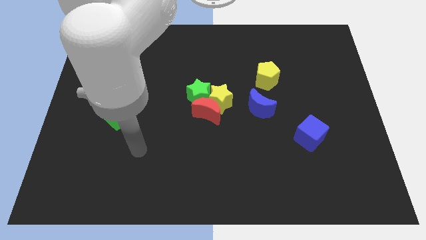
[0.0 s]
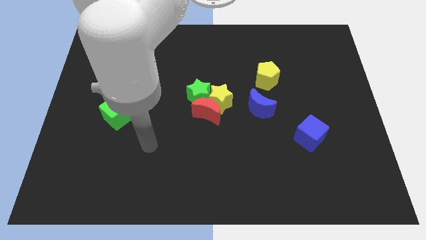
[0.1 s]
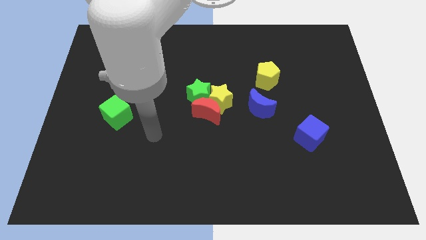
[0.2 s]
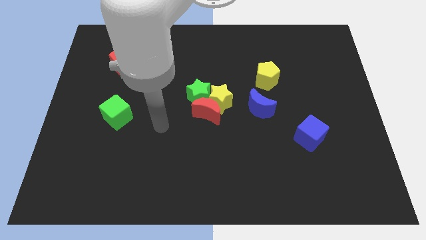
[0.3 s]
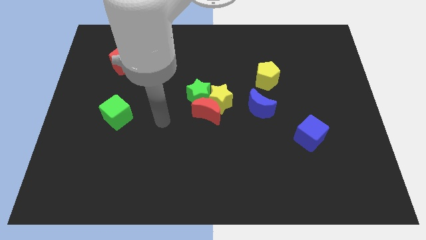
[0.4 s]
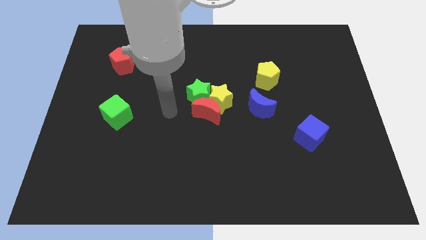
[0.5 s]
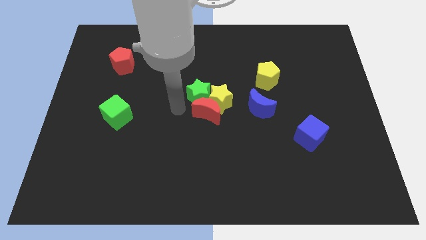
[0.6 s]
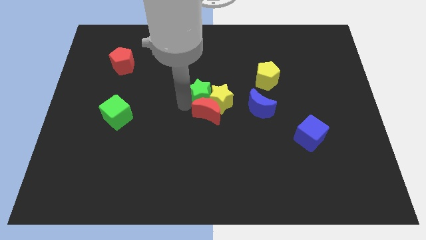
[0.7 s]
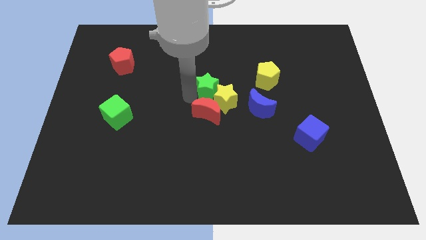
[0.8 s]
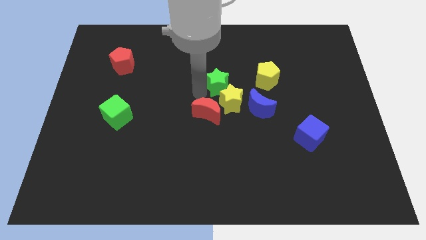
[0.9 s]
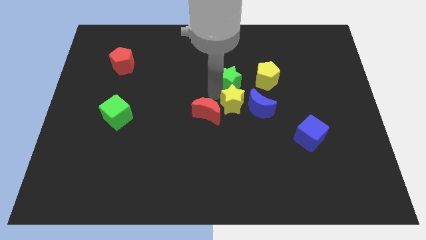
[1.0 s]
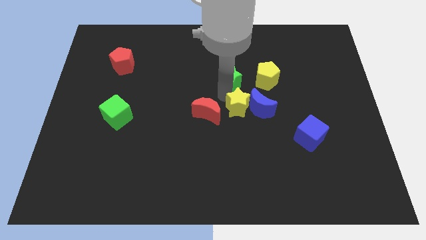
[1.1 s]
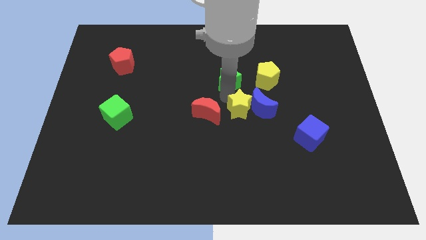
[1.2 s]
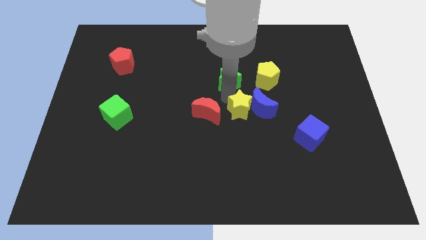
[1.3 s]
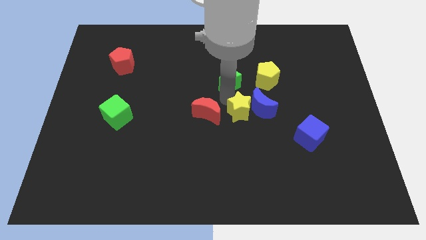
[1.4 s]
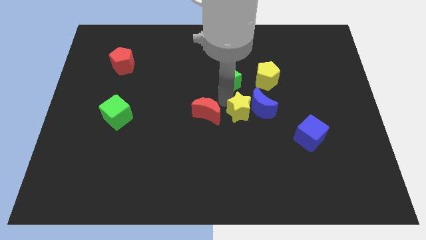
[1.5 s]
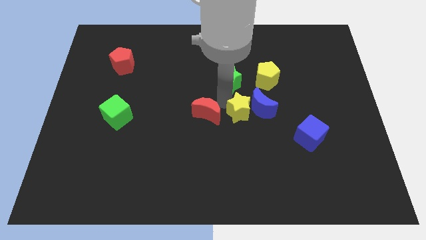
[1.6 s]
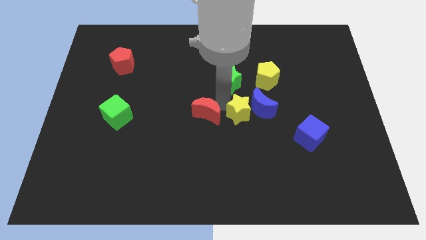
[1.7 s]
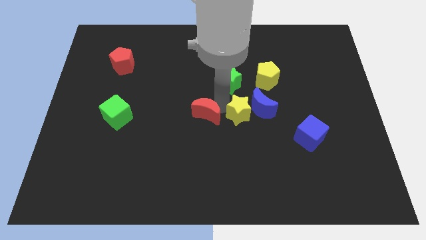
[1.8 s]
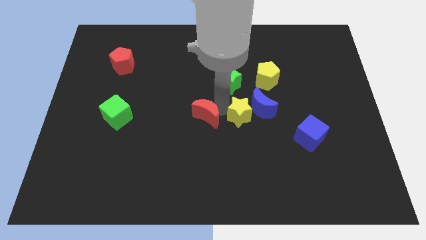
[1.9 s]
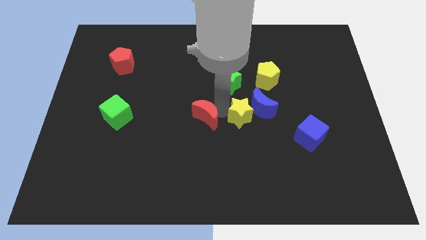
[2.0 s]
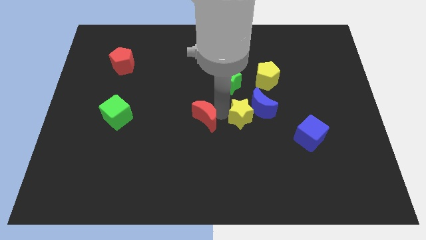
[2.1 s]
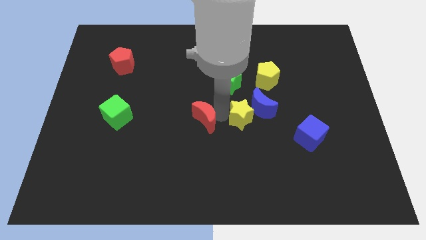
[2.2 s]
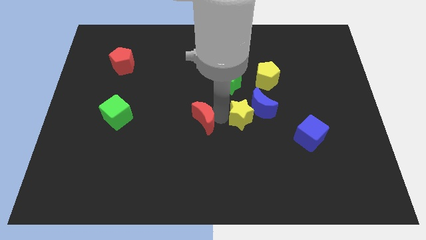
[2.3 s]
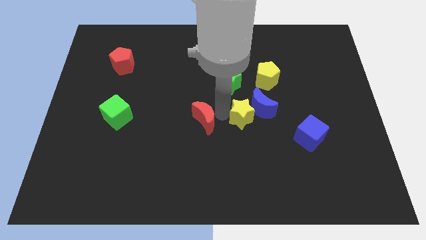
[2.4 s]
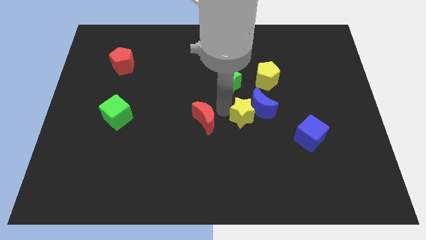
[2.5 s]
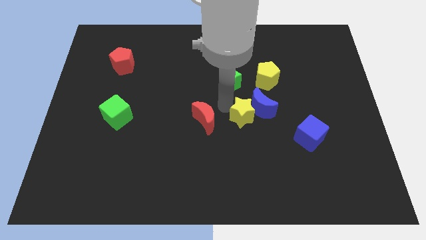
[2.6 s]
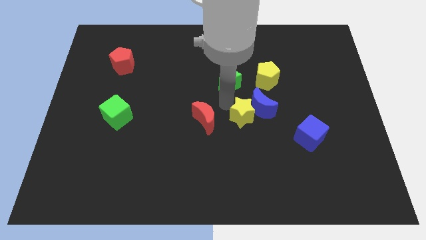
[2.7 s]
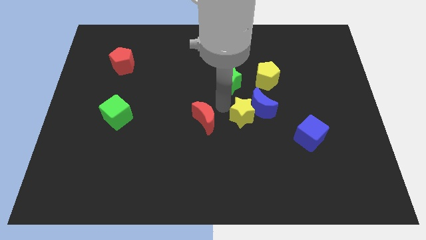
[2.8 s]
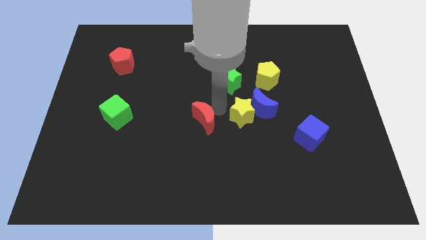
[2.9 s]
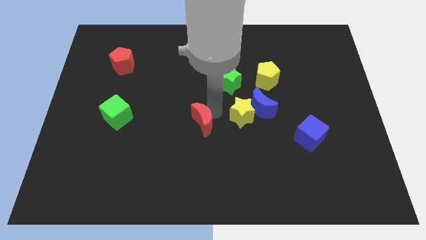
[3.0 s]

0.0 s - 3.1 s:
move the red moon away from the yellow star and green star

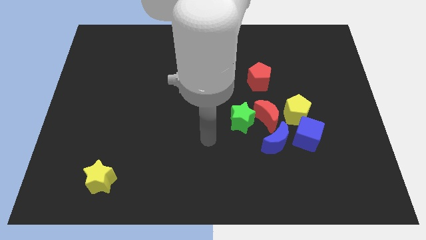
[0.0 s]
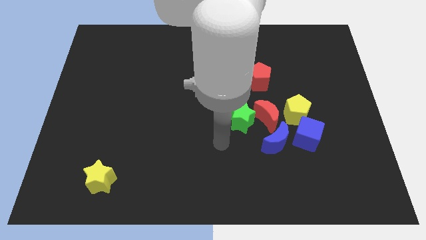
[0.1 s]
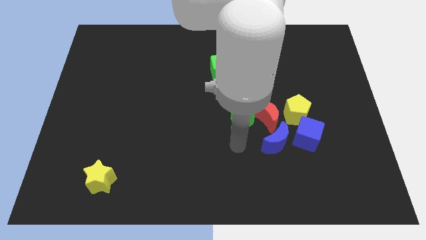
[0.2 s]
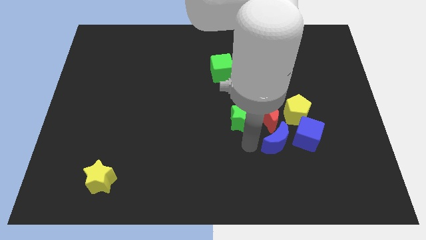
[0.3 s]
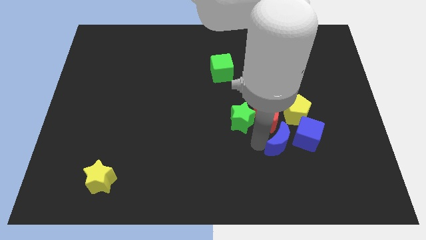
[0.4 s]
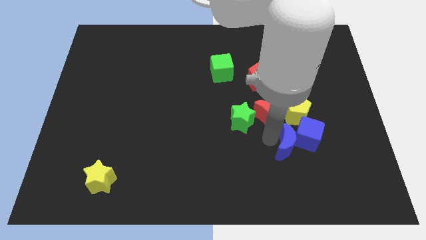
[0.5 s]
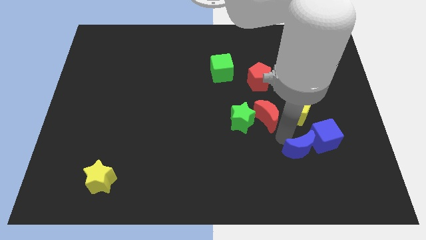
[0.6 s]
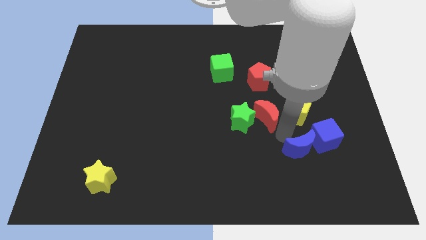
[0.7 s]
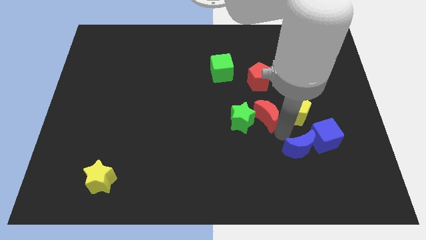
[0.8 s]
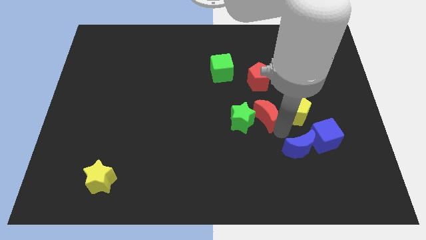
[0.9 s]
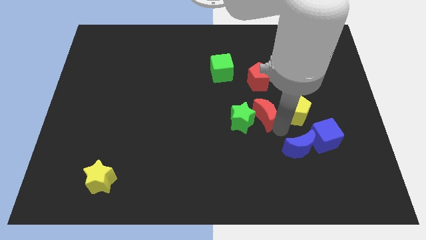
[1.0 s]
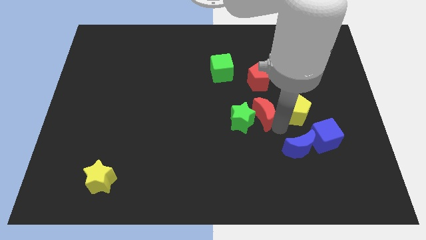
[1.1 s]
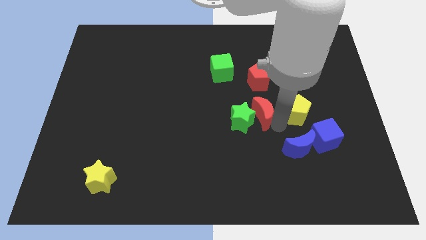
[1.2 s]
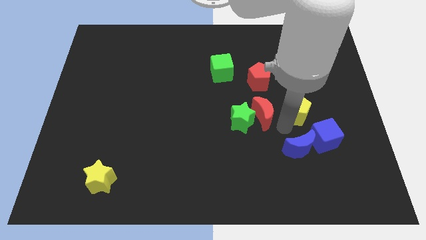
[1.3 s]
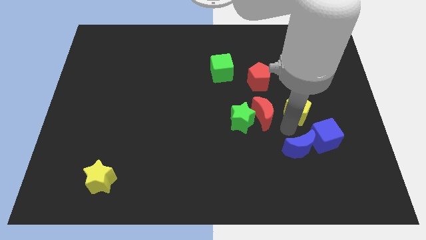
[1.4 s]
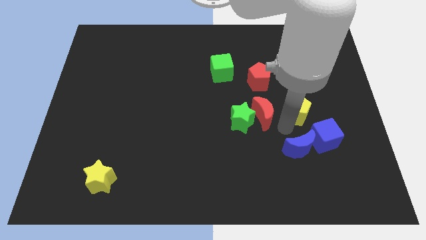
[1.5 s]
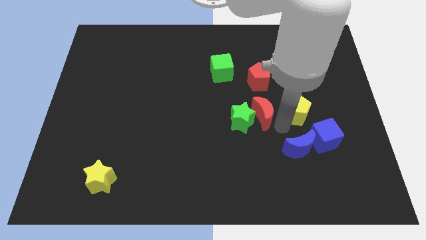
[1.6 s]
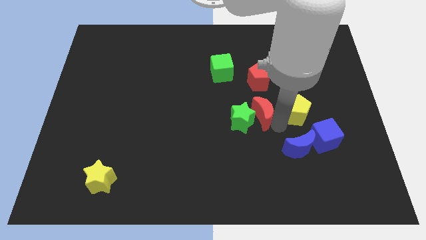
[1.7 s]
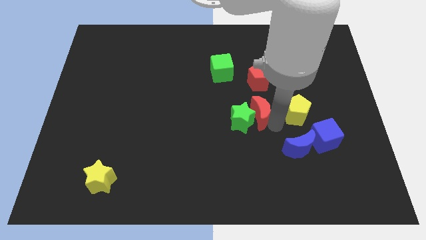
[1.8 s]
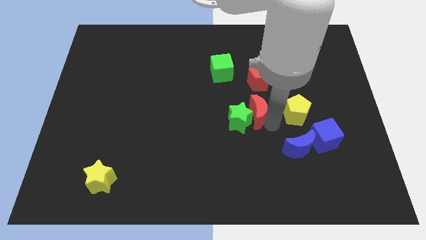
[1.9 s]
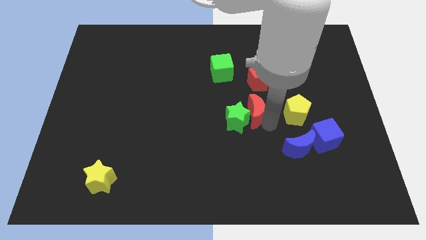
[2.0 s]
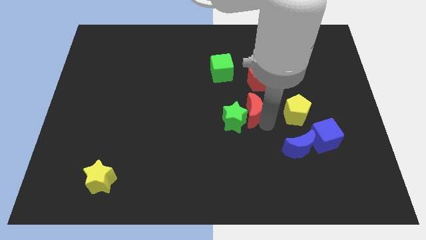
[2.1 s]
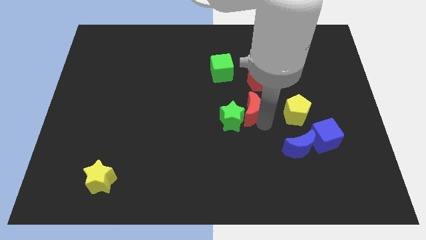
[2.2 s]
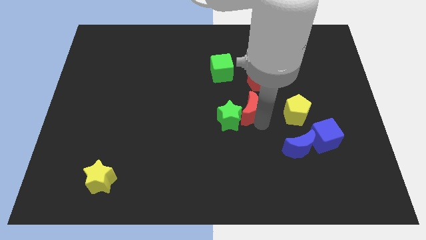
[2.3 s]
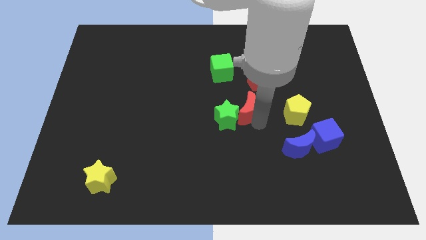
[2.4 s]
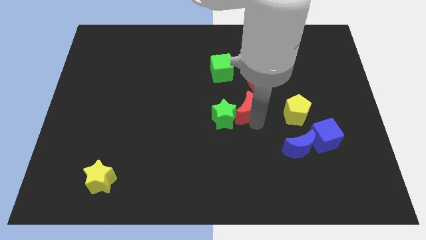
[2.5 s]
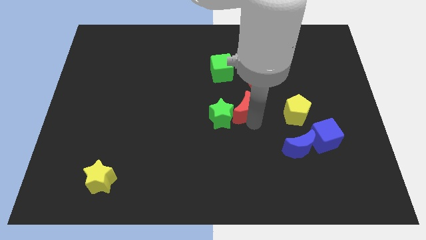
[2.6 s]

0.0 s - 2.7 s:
move the red moon away from the clump

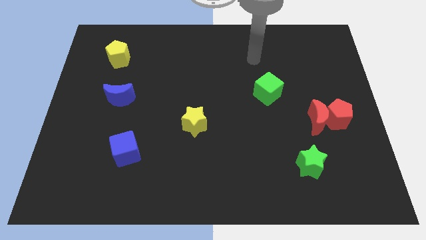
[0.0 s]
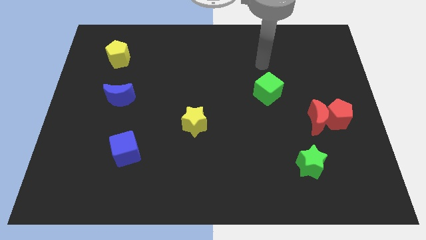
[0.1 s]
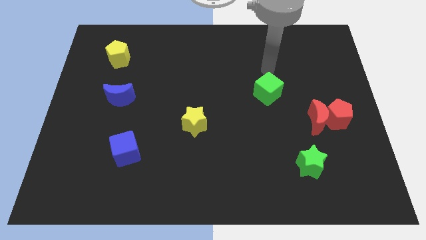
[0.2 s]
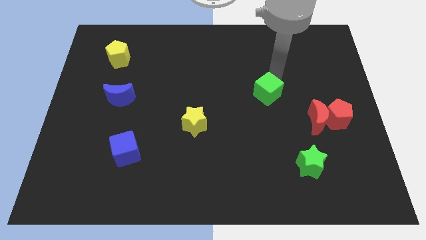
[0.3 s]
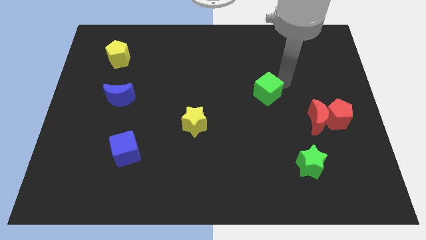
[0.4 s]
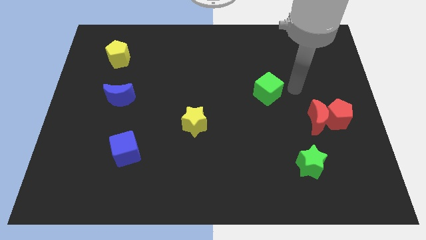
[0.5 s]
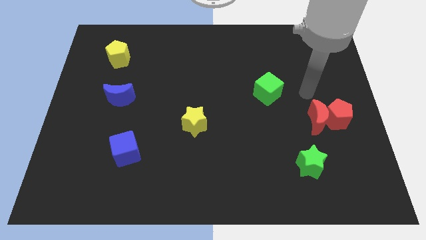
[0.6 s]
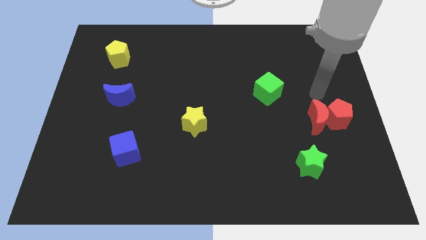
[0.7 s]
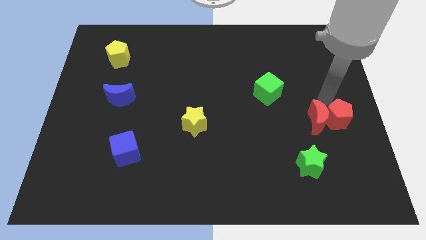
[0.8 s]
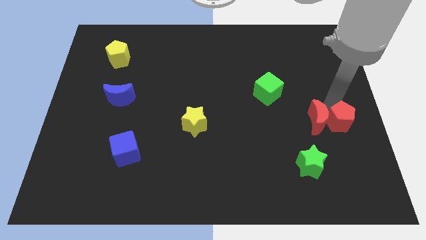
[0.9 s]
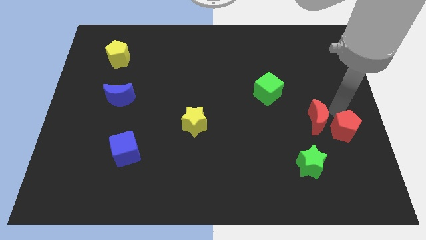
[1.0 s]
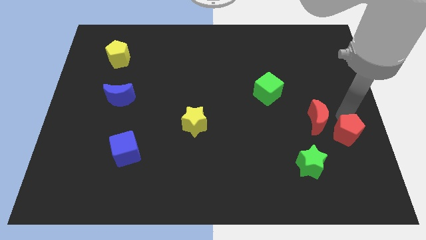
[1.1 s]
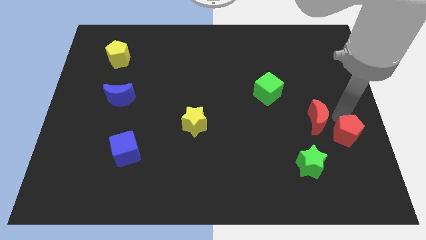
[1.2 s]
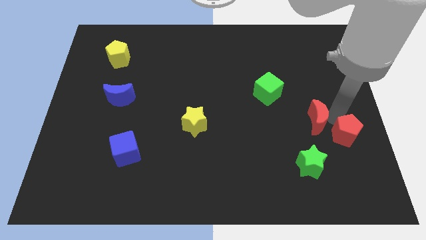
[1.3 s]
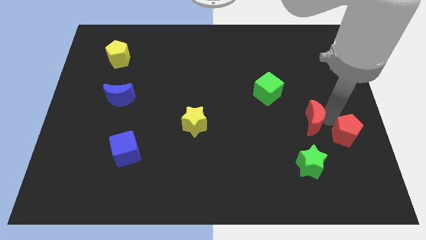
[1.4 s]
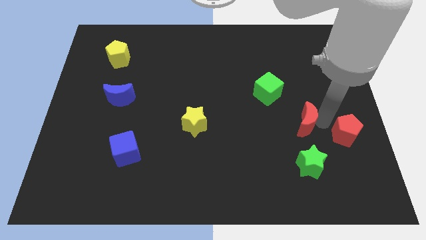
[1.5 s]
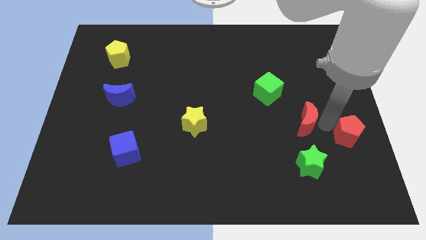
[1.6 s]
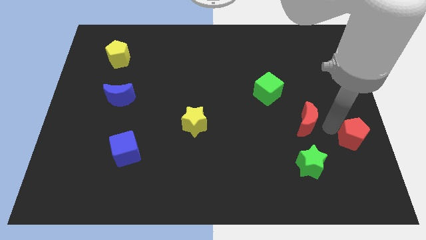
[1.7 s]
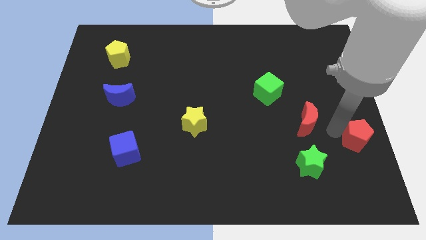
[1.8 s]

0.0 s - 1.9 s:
move the red moon away from the red pentagon

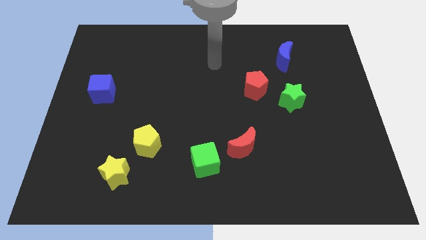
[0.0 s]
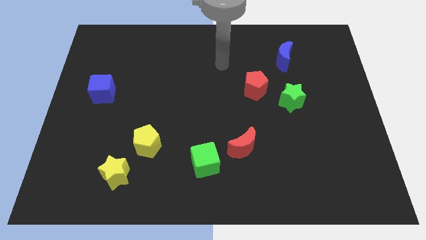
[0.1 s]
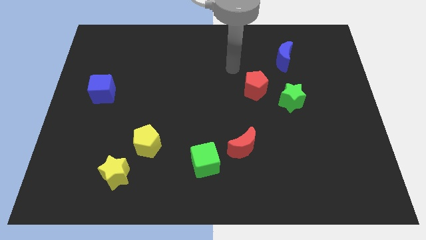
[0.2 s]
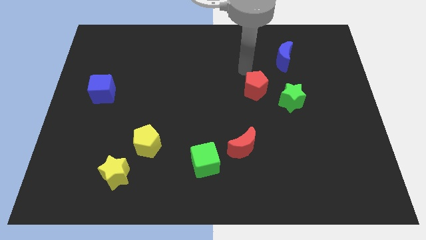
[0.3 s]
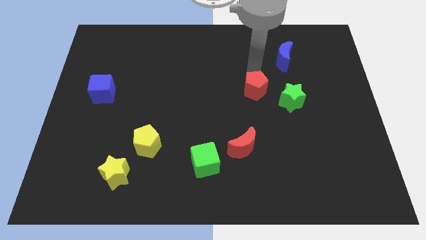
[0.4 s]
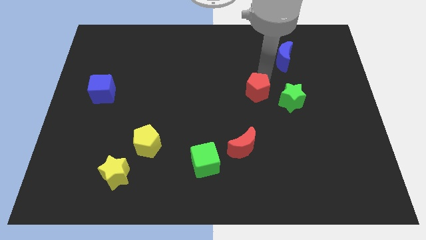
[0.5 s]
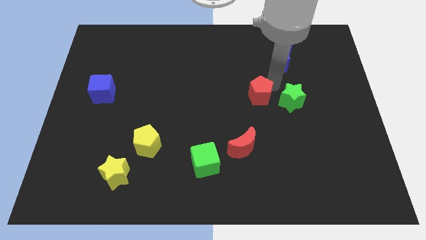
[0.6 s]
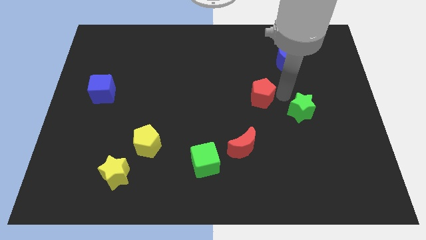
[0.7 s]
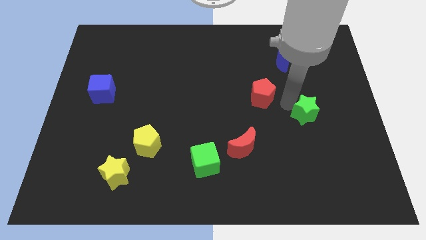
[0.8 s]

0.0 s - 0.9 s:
separate the red pentagon from the green star

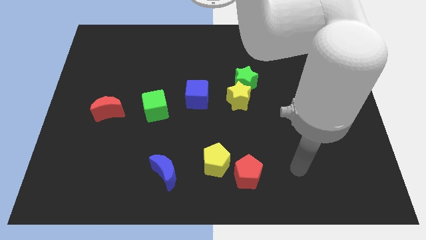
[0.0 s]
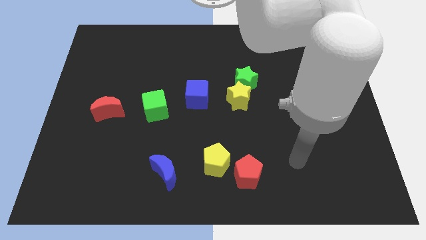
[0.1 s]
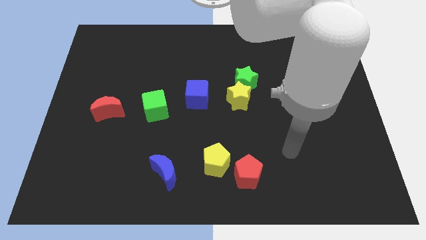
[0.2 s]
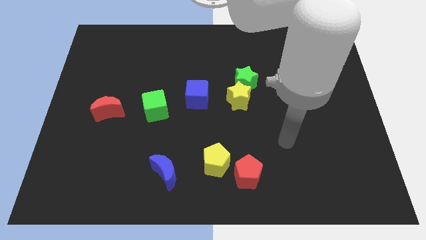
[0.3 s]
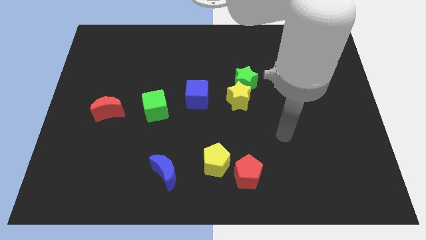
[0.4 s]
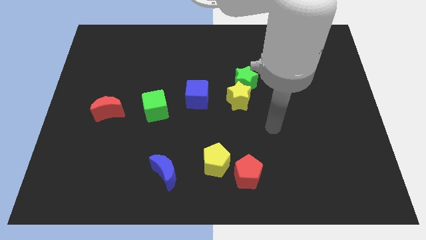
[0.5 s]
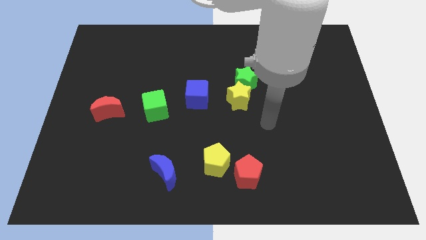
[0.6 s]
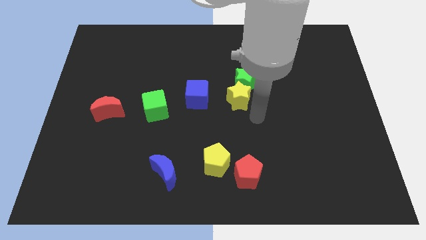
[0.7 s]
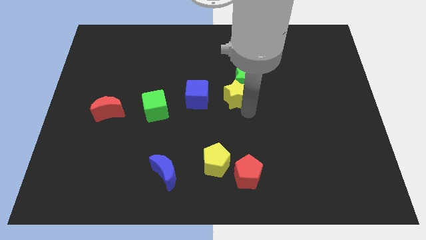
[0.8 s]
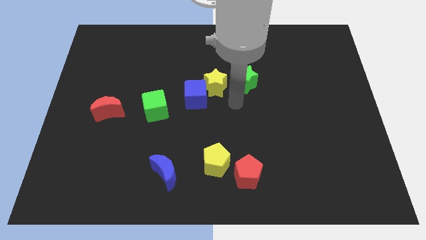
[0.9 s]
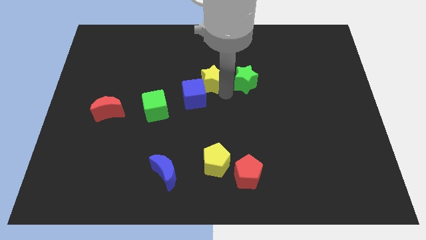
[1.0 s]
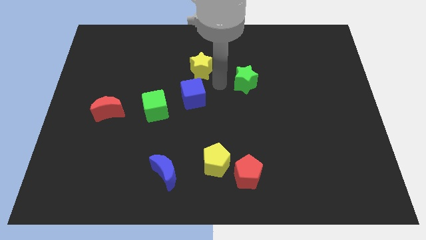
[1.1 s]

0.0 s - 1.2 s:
separate the green star from the yellow star
